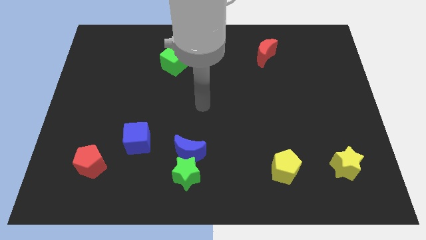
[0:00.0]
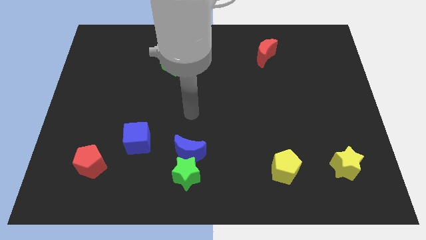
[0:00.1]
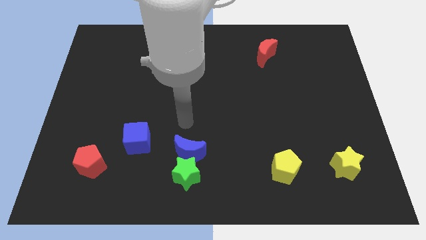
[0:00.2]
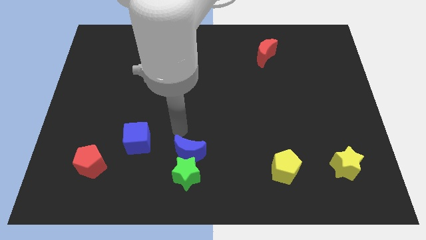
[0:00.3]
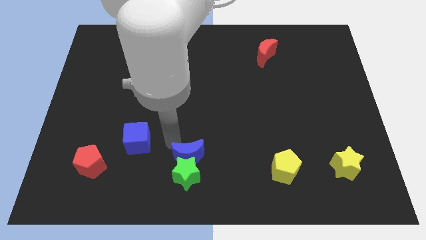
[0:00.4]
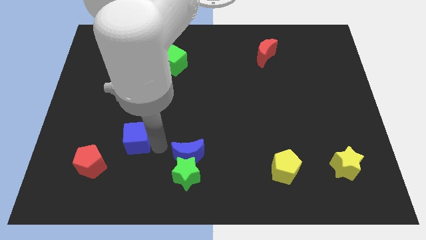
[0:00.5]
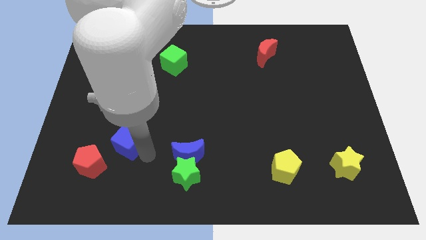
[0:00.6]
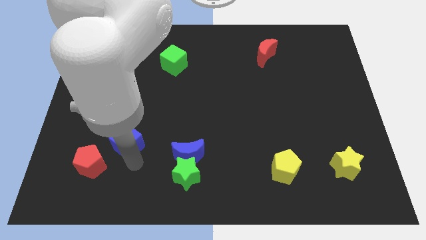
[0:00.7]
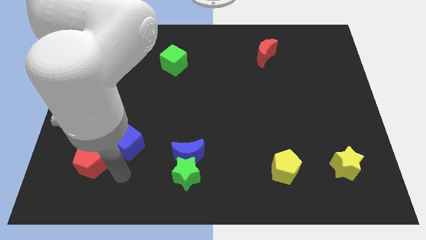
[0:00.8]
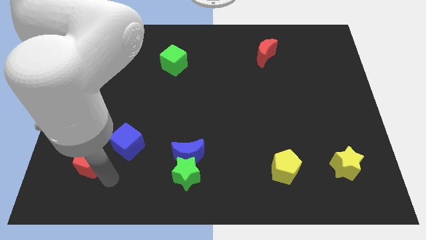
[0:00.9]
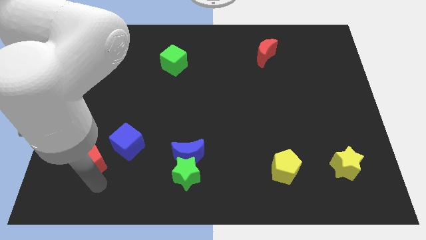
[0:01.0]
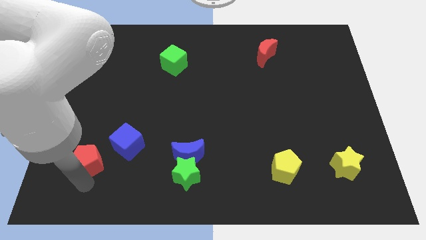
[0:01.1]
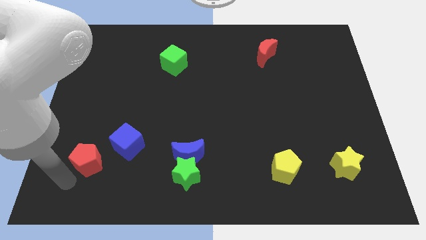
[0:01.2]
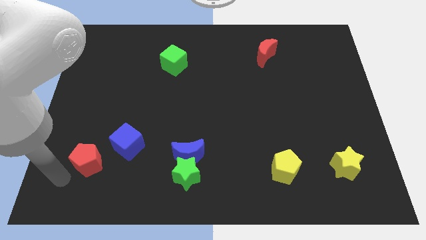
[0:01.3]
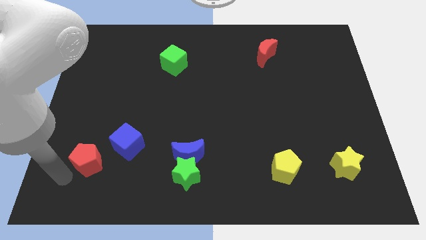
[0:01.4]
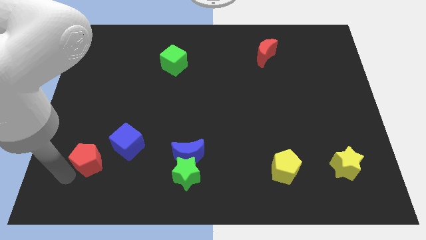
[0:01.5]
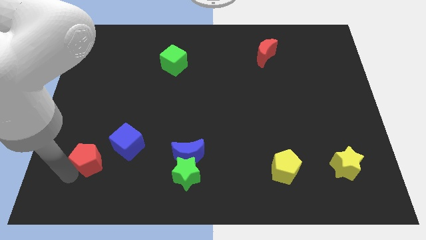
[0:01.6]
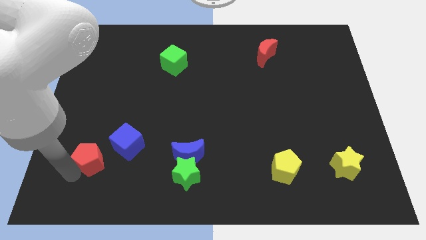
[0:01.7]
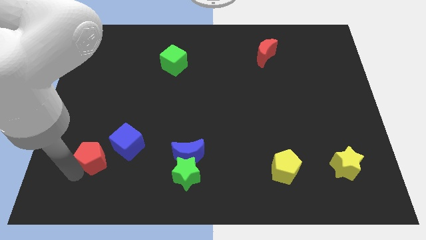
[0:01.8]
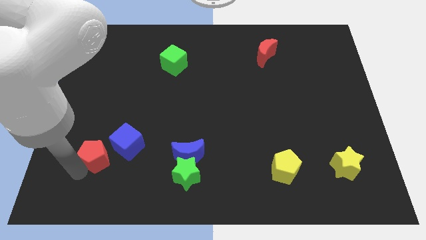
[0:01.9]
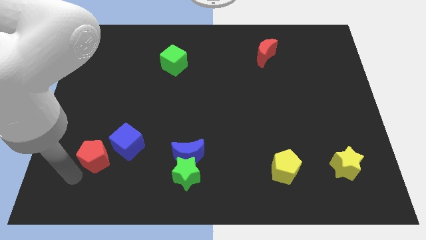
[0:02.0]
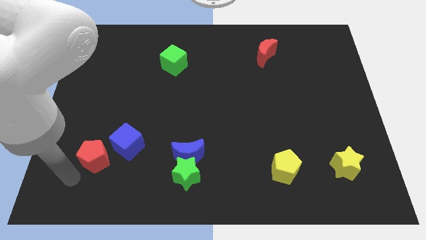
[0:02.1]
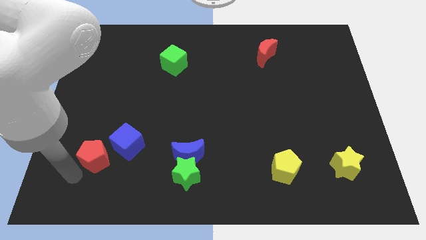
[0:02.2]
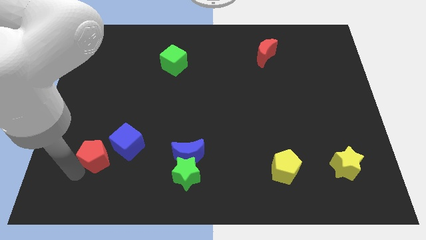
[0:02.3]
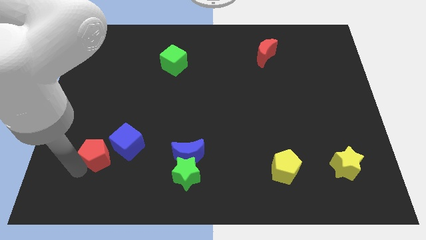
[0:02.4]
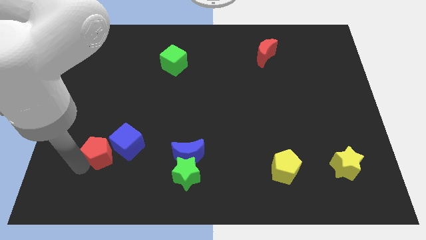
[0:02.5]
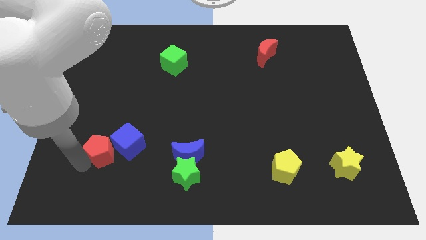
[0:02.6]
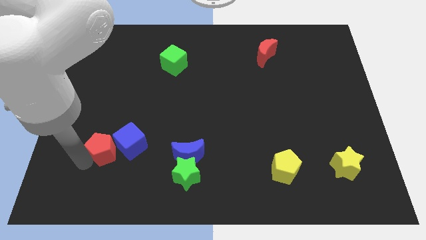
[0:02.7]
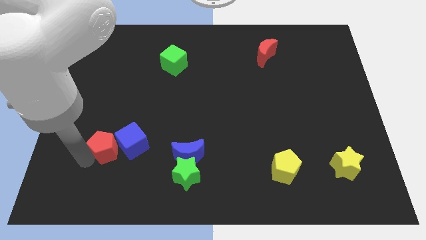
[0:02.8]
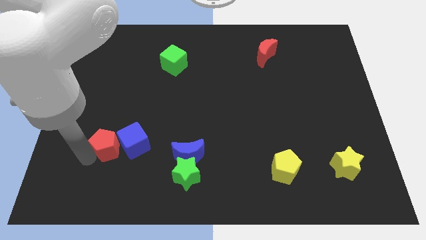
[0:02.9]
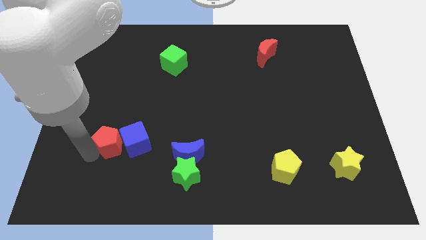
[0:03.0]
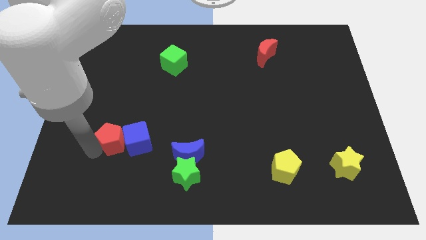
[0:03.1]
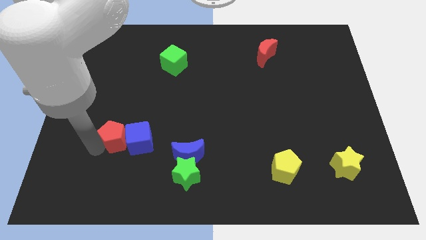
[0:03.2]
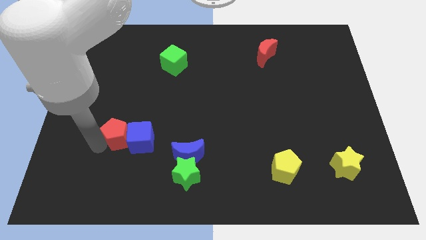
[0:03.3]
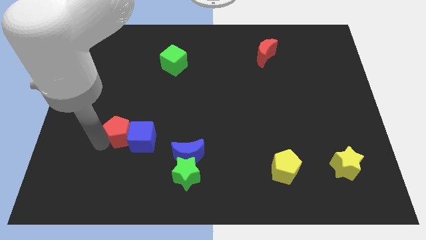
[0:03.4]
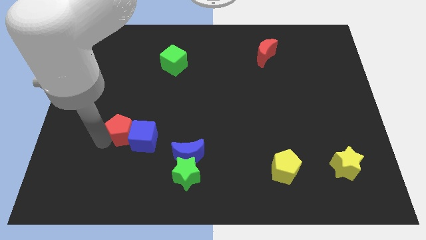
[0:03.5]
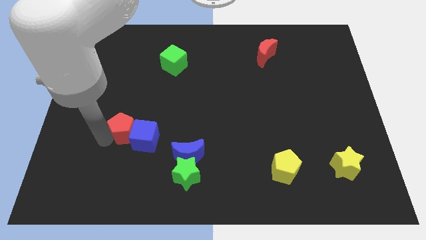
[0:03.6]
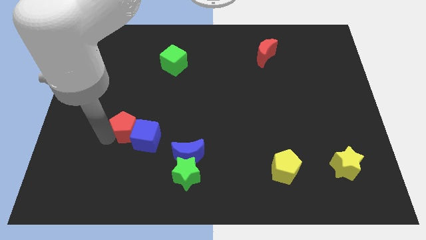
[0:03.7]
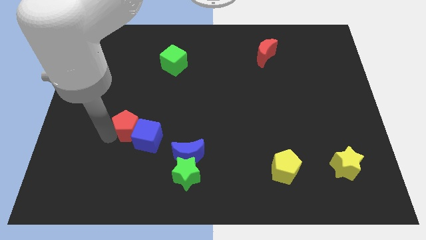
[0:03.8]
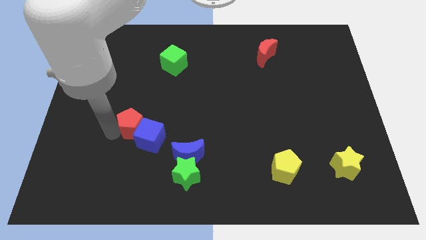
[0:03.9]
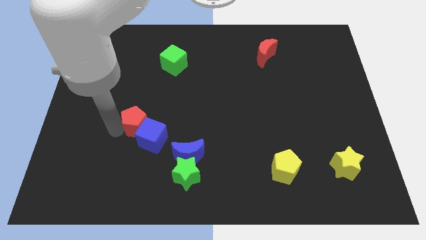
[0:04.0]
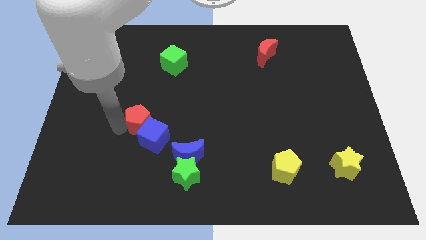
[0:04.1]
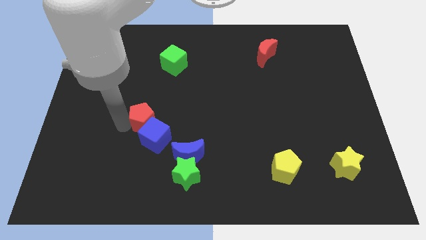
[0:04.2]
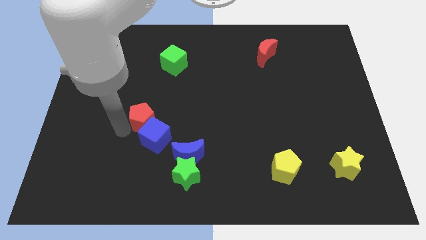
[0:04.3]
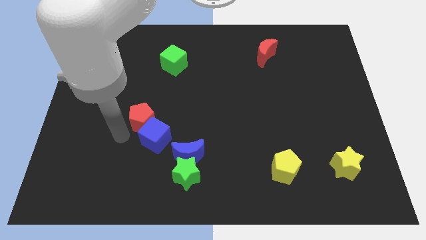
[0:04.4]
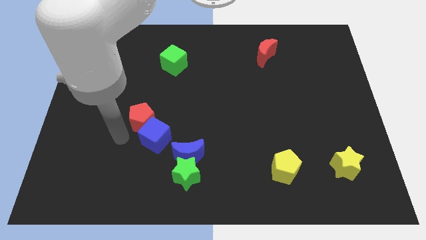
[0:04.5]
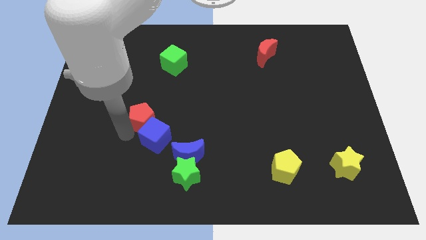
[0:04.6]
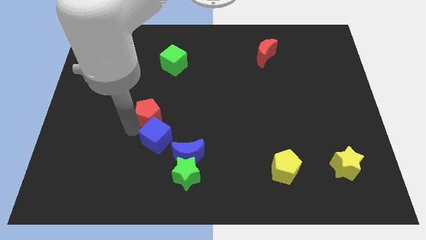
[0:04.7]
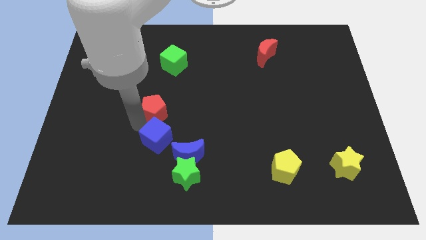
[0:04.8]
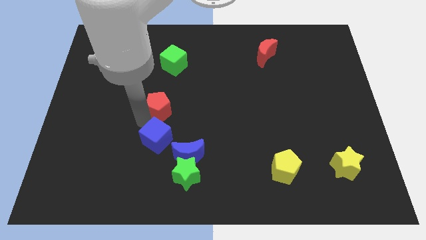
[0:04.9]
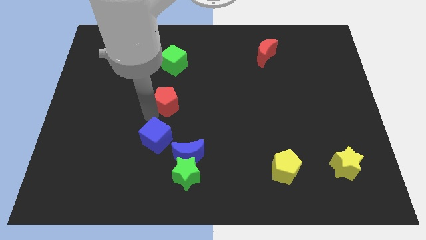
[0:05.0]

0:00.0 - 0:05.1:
push the red pentagon up and to the right

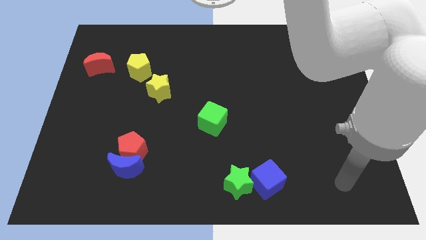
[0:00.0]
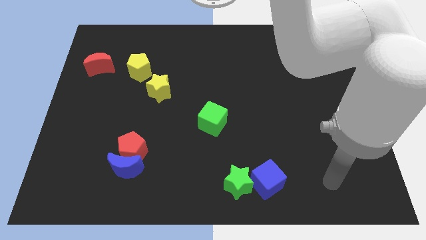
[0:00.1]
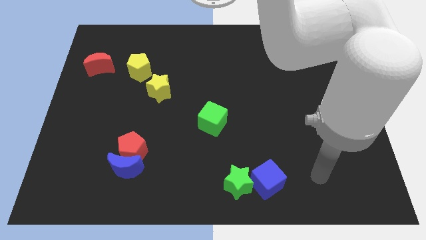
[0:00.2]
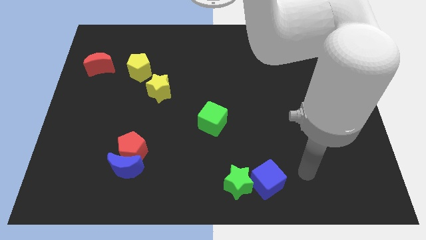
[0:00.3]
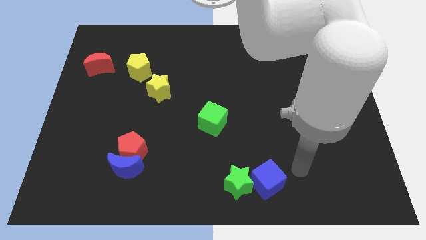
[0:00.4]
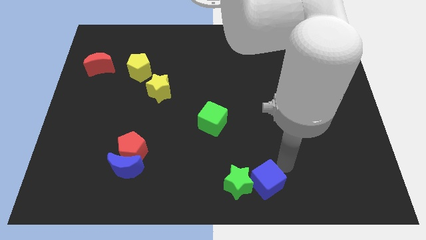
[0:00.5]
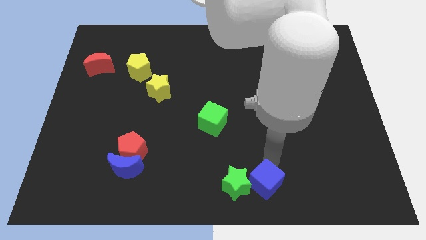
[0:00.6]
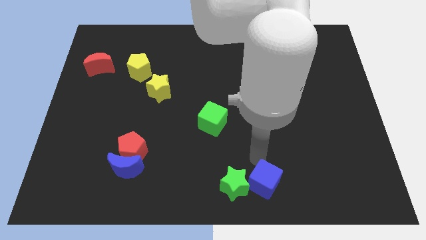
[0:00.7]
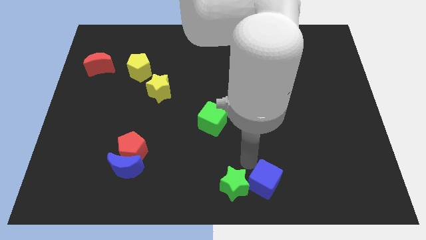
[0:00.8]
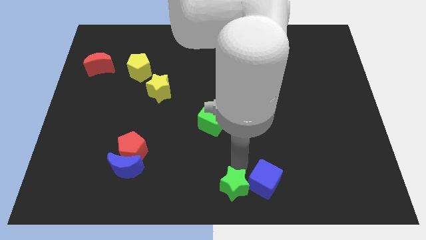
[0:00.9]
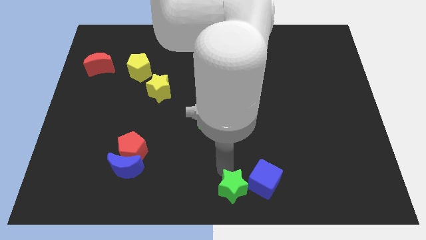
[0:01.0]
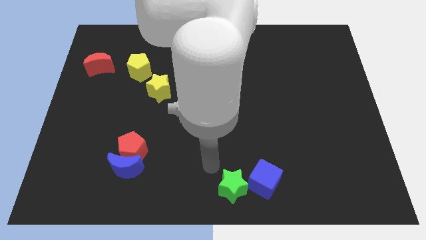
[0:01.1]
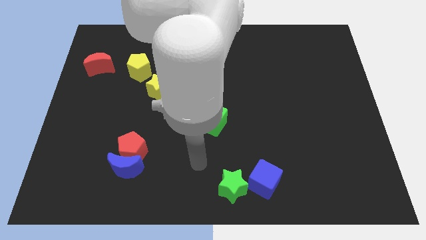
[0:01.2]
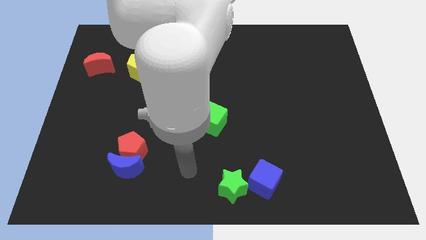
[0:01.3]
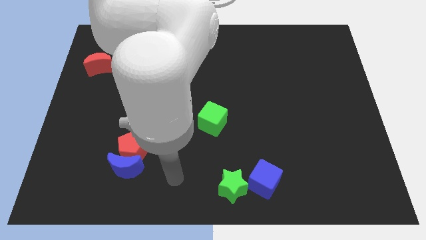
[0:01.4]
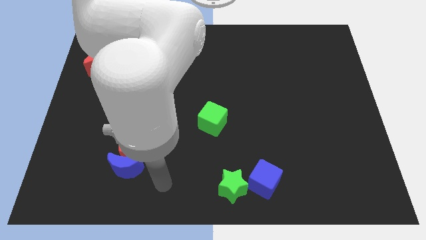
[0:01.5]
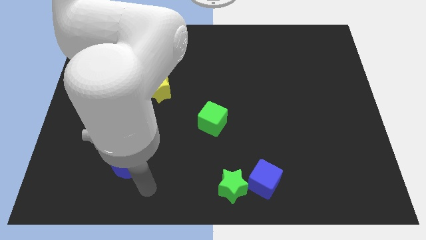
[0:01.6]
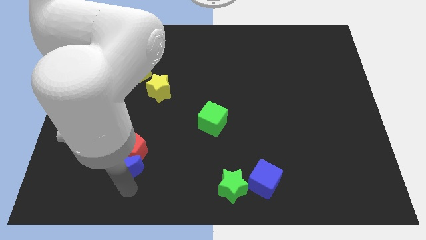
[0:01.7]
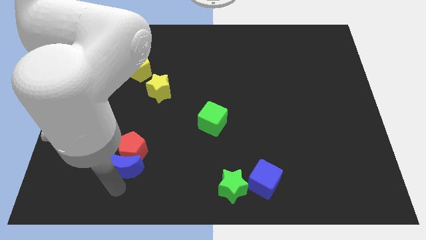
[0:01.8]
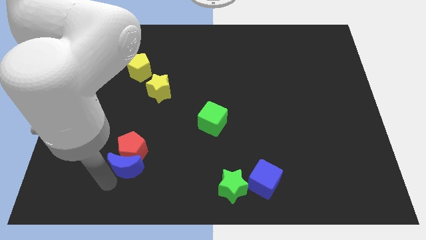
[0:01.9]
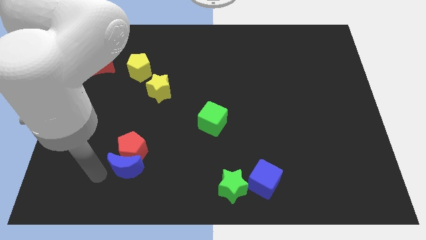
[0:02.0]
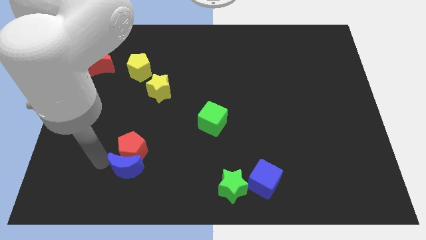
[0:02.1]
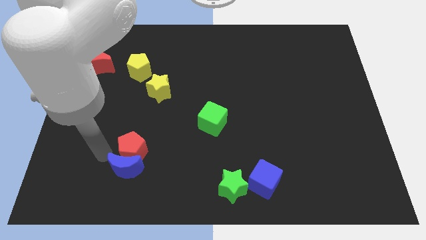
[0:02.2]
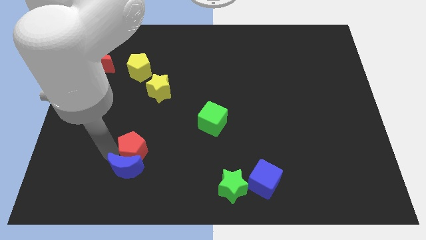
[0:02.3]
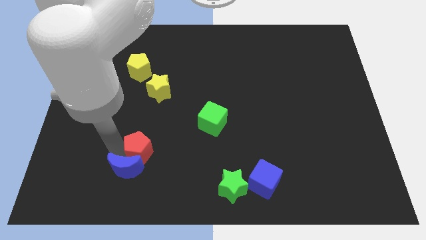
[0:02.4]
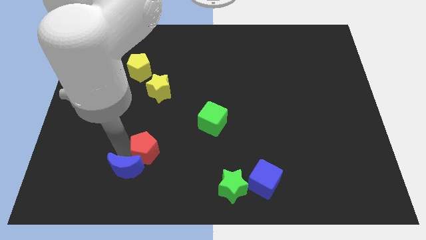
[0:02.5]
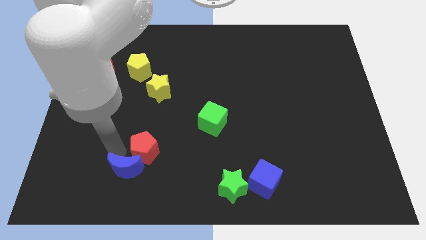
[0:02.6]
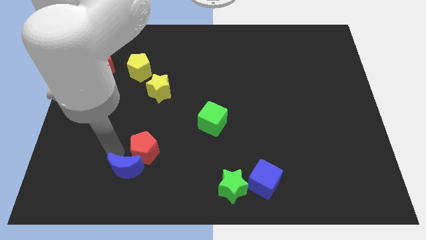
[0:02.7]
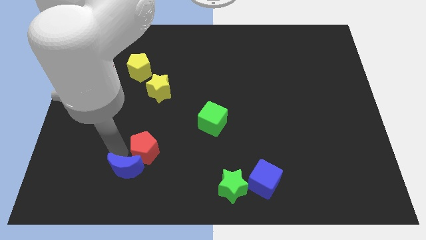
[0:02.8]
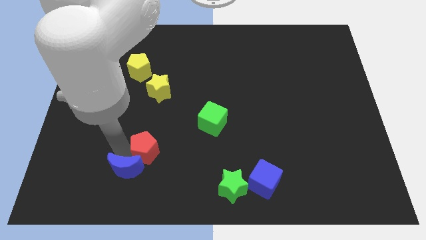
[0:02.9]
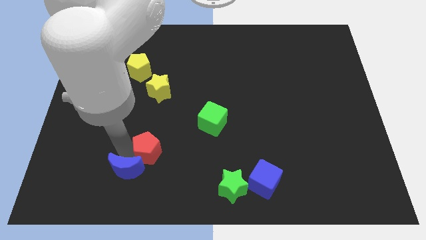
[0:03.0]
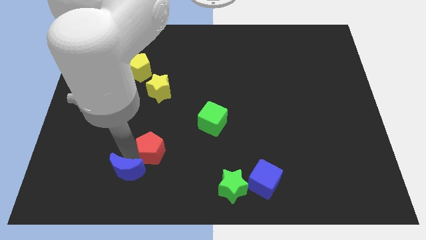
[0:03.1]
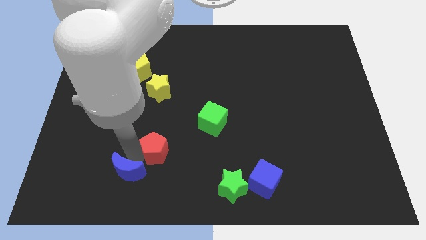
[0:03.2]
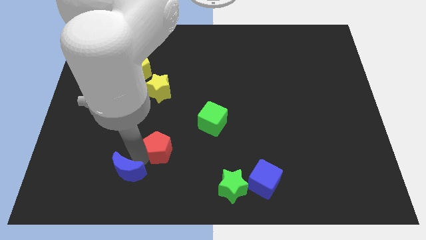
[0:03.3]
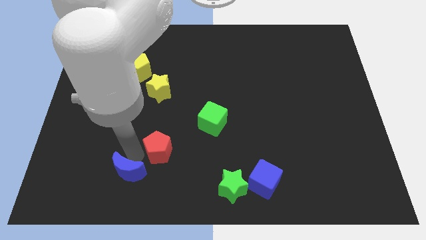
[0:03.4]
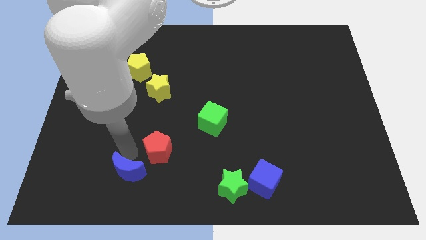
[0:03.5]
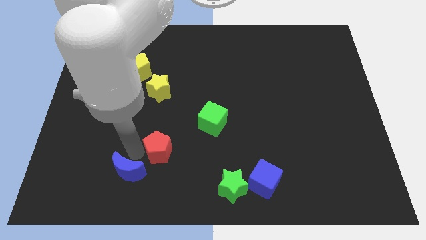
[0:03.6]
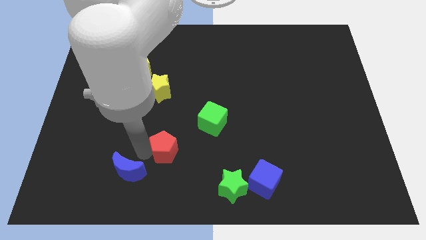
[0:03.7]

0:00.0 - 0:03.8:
slide the red pentagon a little bit right
